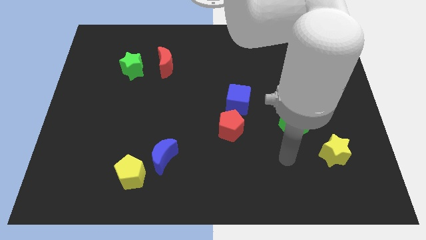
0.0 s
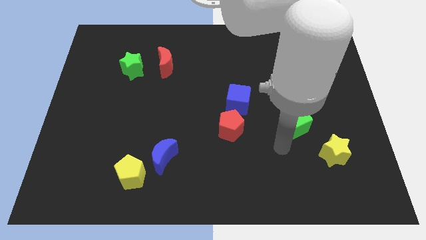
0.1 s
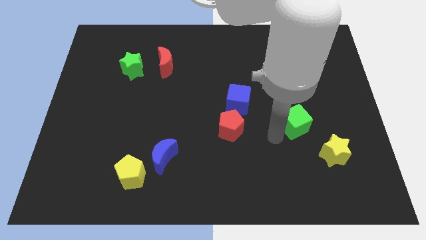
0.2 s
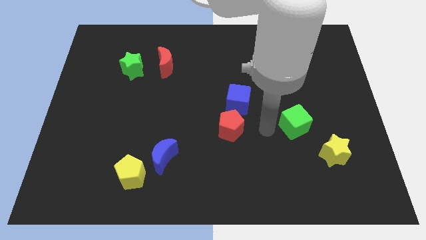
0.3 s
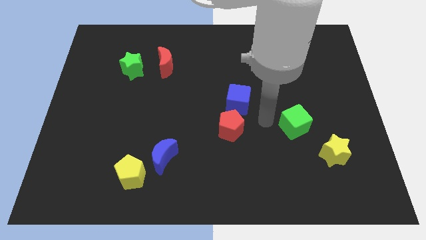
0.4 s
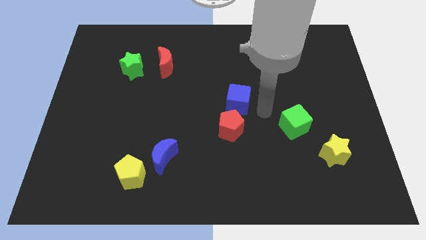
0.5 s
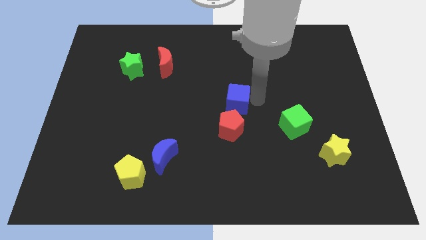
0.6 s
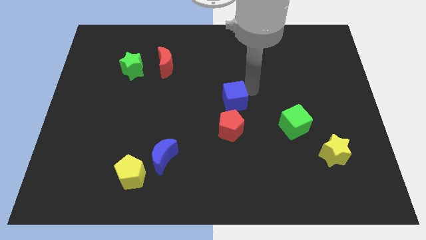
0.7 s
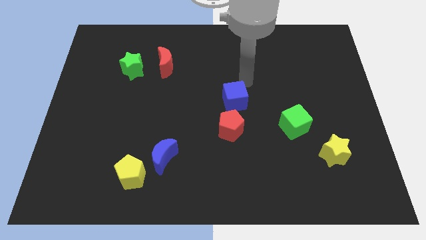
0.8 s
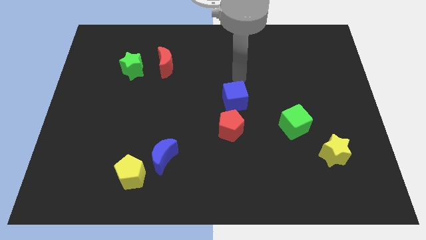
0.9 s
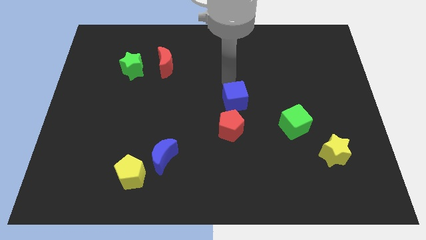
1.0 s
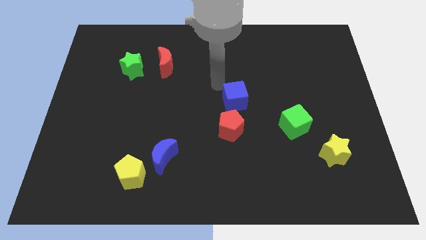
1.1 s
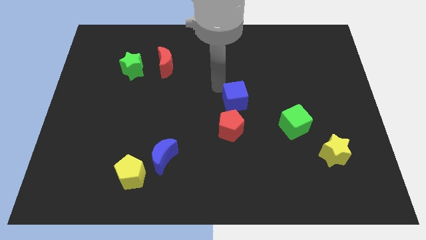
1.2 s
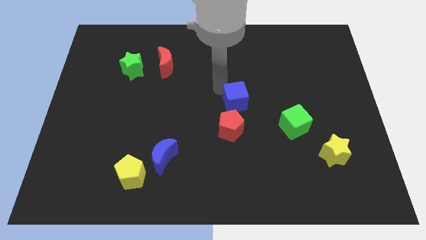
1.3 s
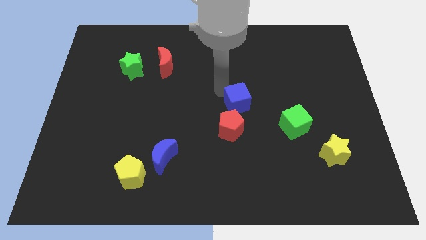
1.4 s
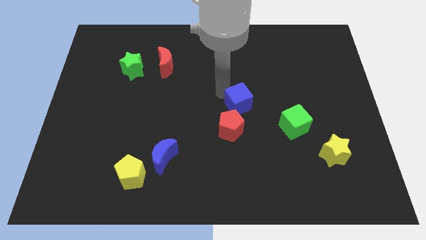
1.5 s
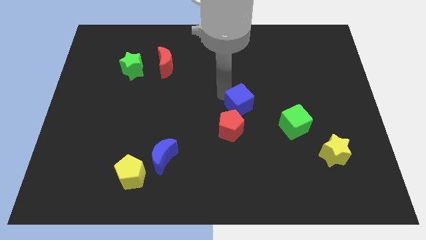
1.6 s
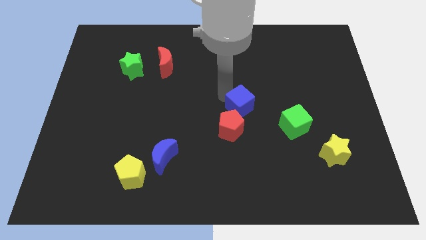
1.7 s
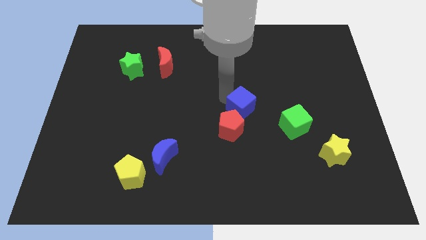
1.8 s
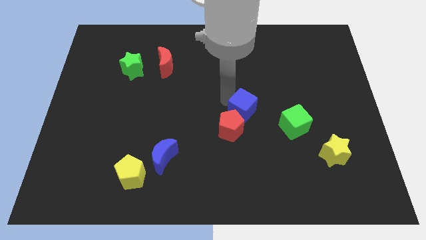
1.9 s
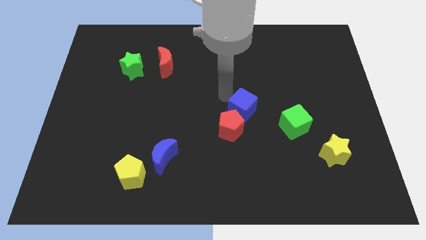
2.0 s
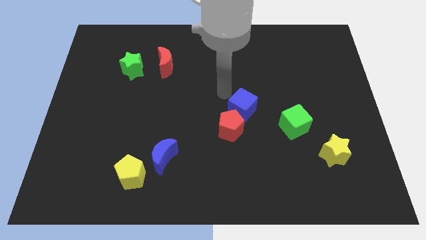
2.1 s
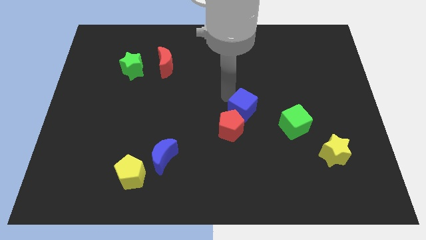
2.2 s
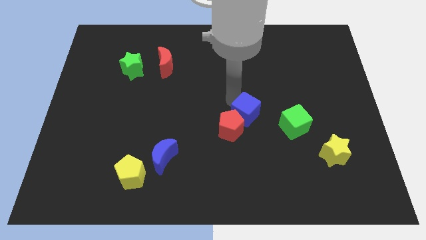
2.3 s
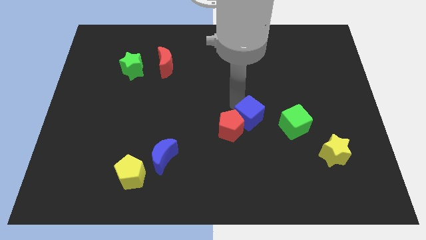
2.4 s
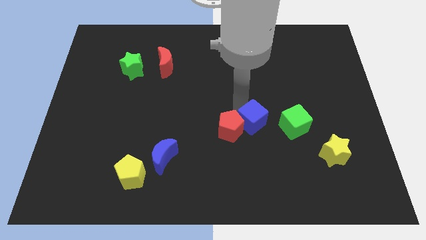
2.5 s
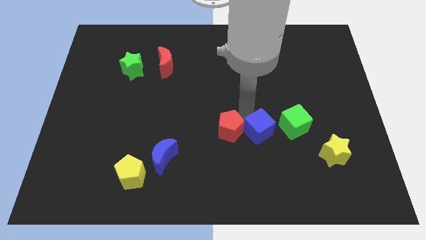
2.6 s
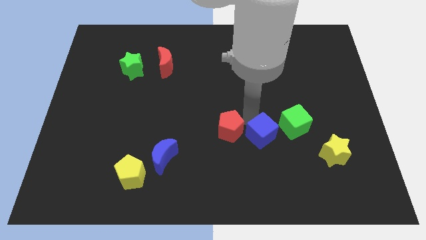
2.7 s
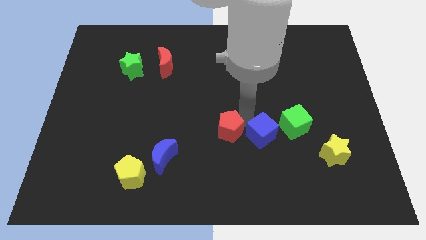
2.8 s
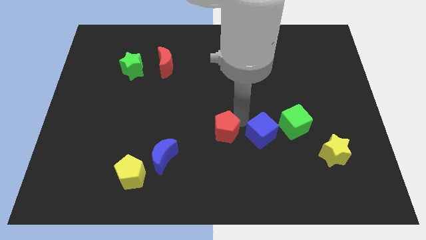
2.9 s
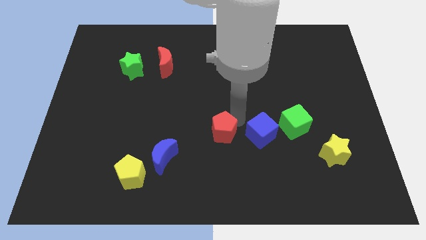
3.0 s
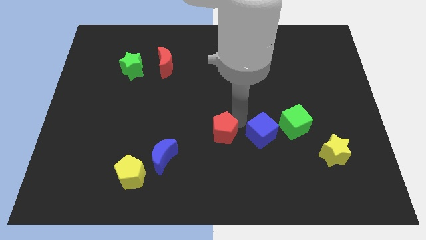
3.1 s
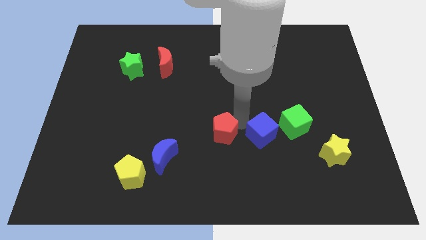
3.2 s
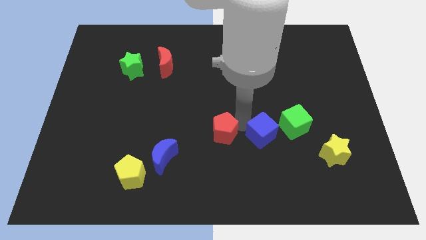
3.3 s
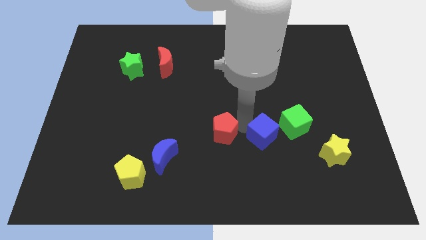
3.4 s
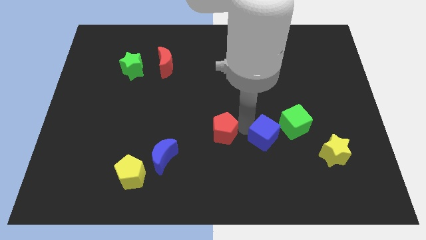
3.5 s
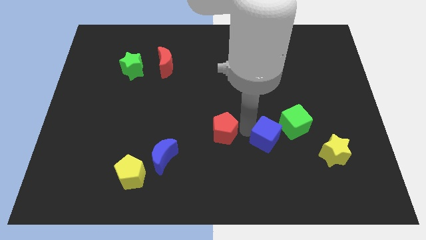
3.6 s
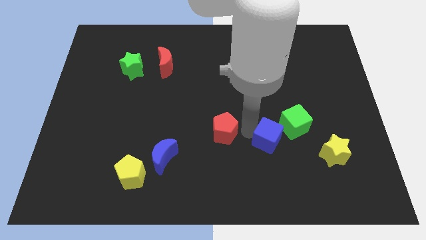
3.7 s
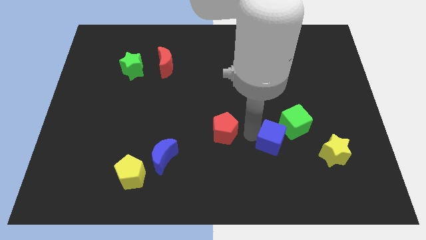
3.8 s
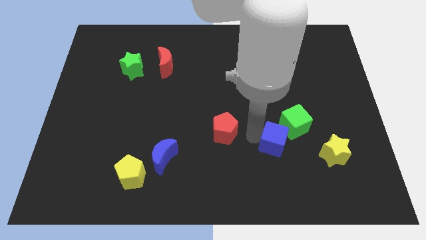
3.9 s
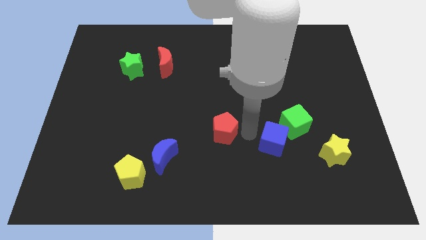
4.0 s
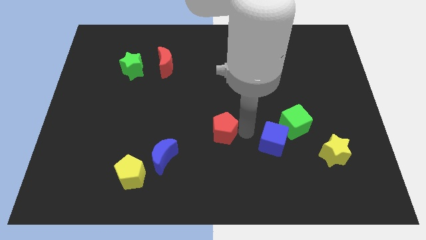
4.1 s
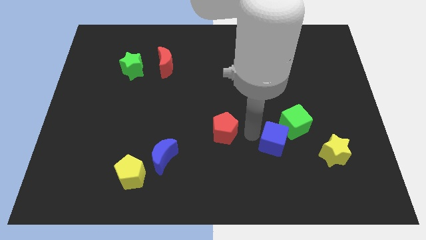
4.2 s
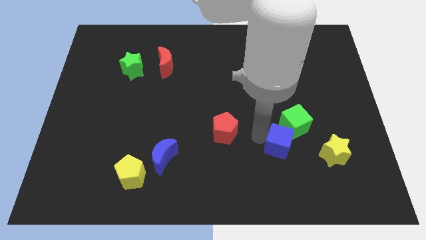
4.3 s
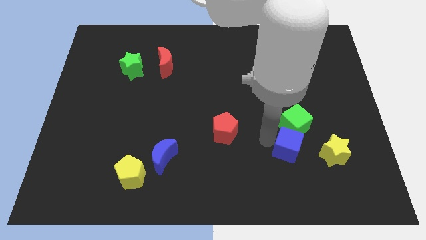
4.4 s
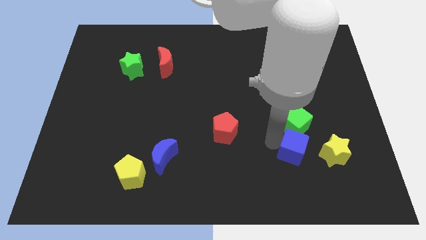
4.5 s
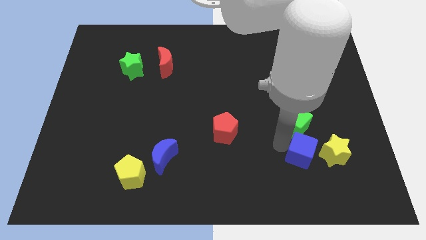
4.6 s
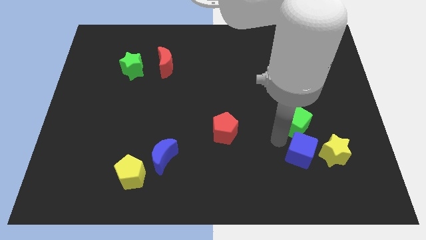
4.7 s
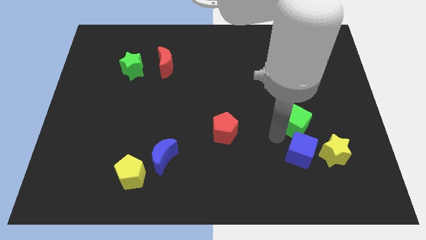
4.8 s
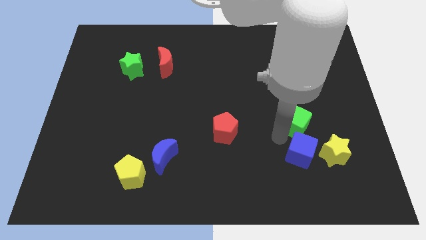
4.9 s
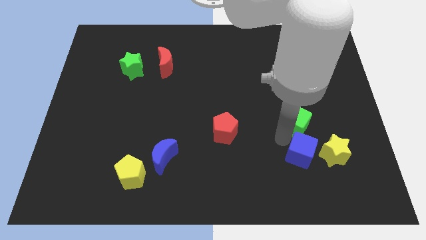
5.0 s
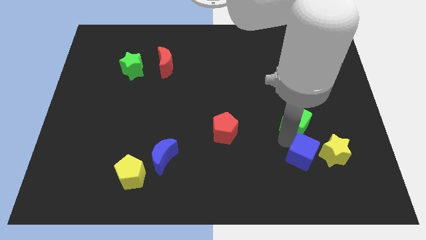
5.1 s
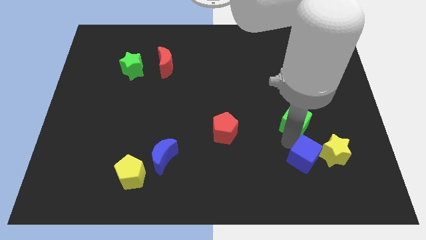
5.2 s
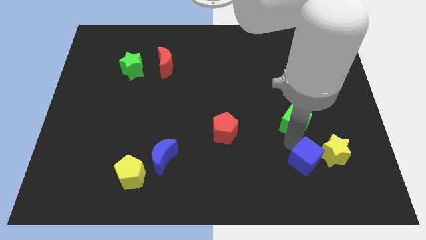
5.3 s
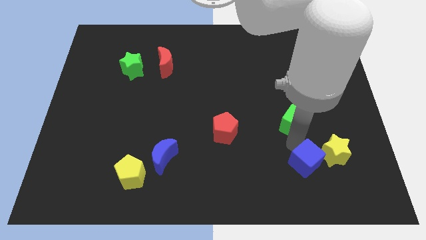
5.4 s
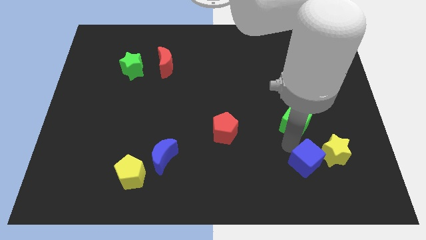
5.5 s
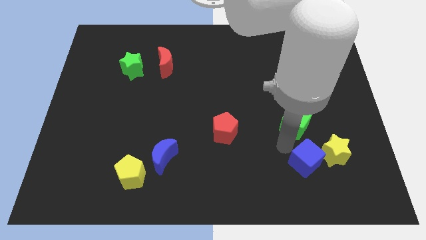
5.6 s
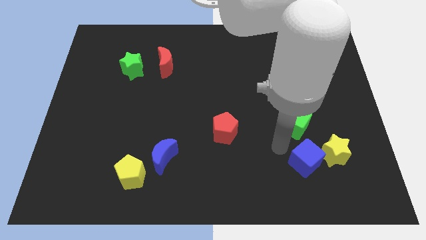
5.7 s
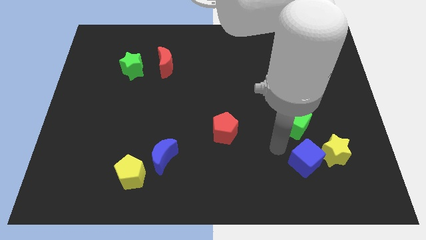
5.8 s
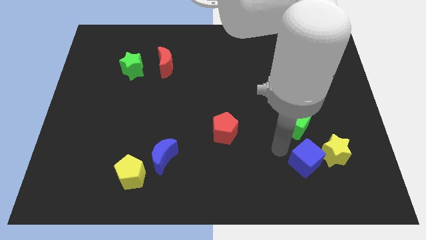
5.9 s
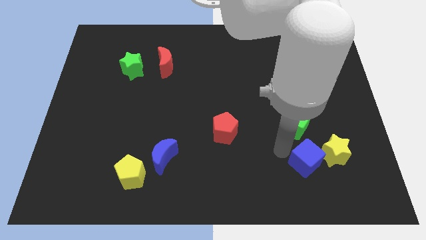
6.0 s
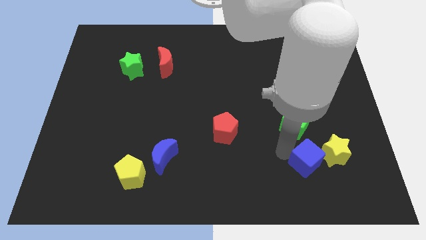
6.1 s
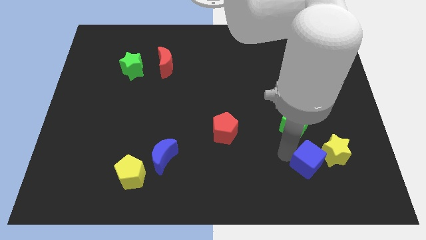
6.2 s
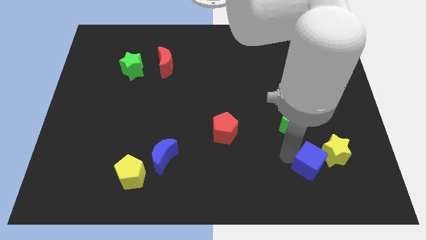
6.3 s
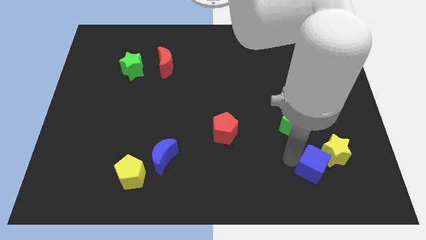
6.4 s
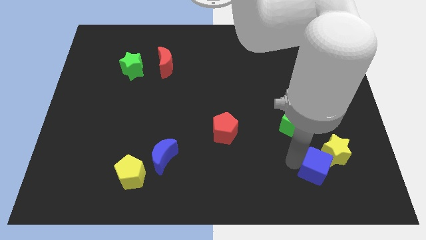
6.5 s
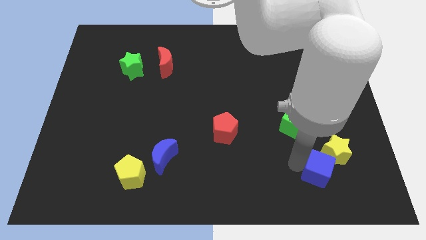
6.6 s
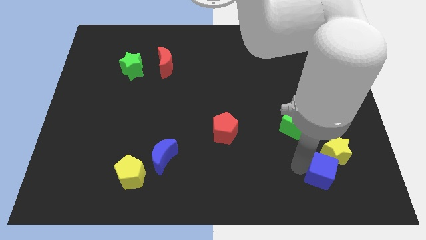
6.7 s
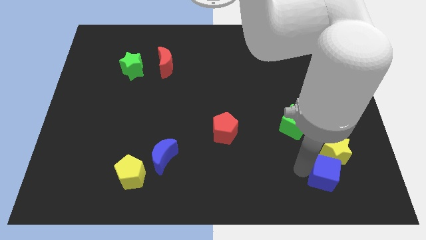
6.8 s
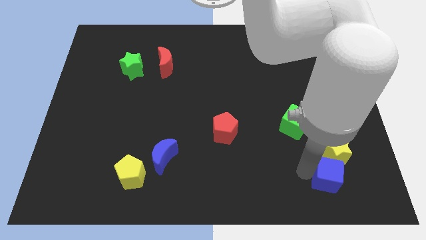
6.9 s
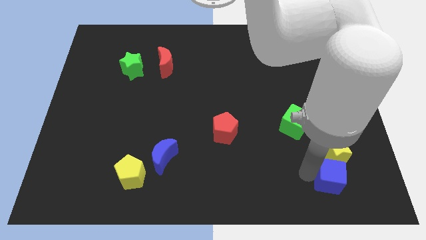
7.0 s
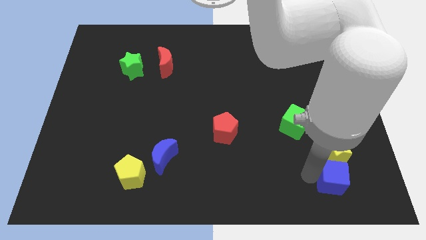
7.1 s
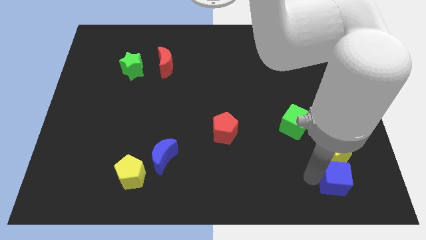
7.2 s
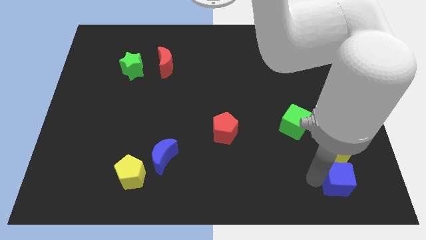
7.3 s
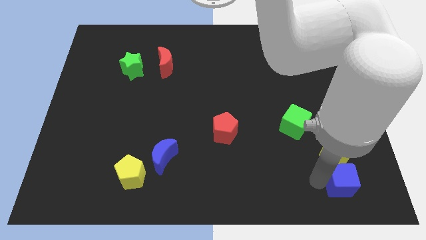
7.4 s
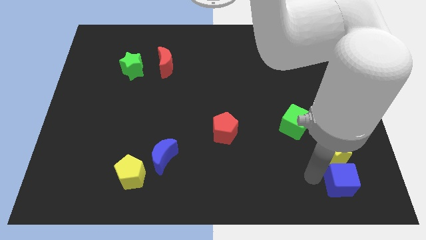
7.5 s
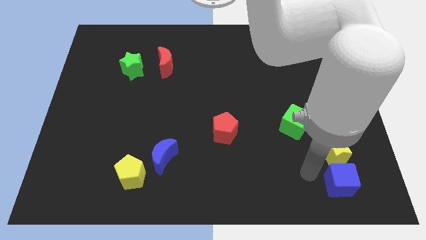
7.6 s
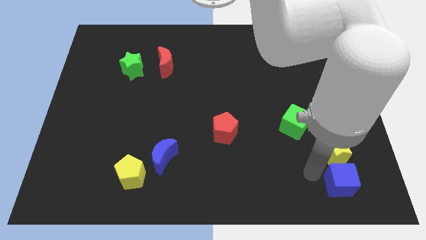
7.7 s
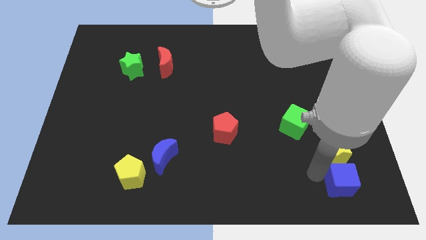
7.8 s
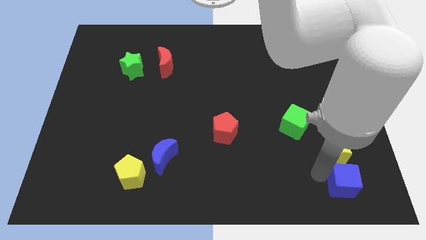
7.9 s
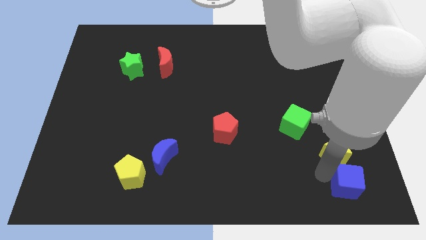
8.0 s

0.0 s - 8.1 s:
slide the blue cube to the bottom right
